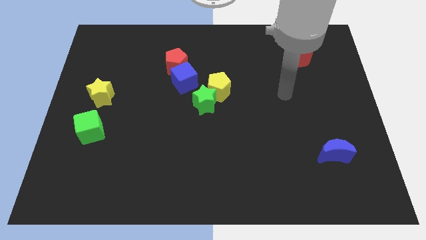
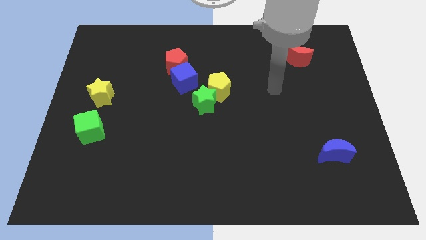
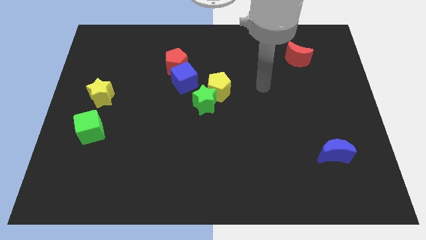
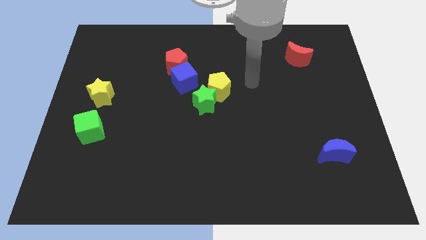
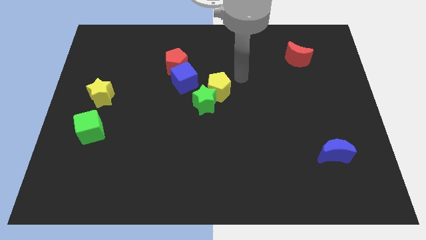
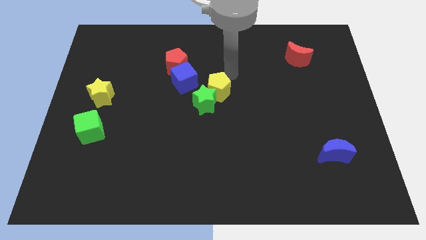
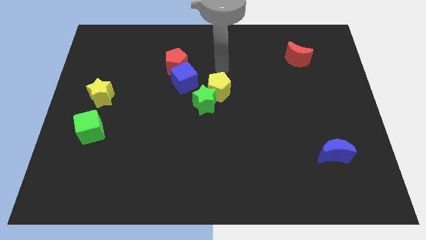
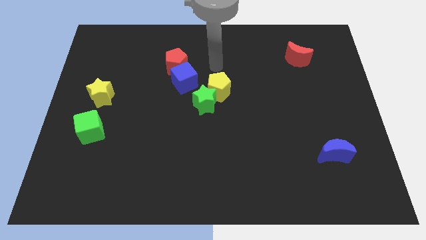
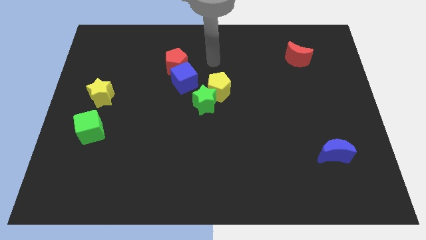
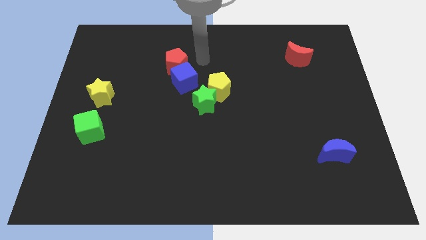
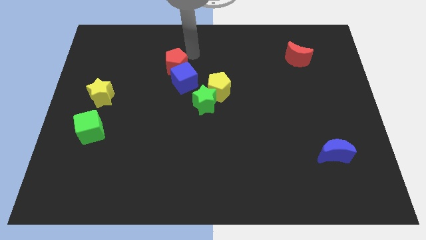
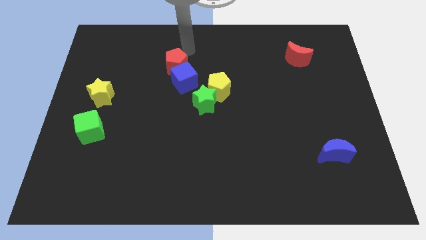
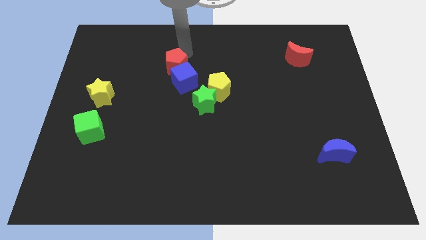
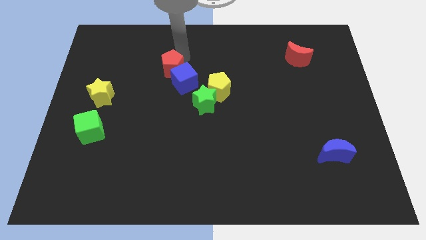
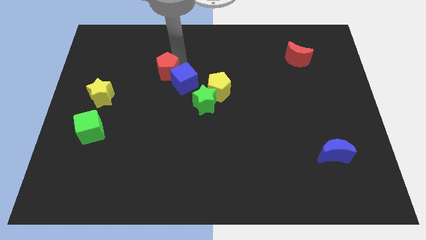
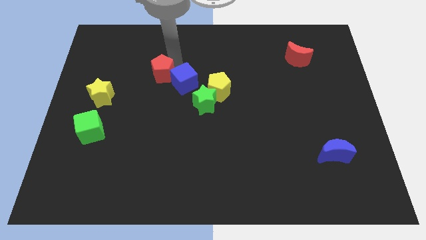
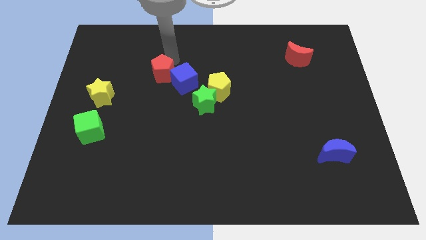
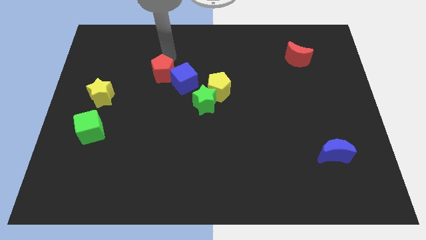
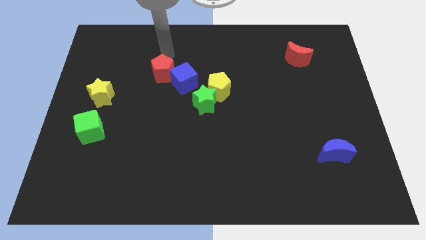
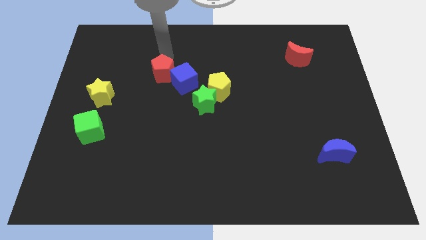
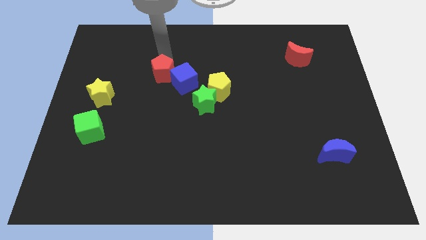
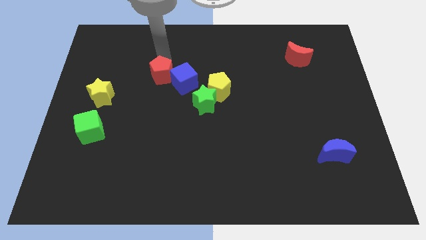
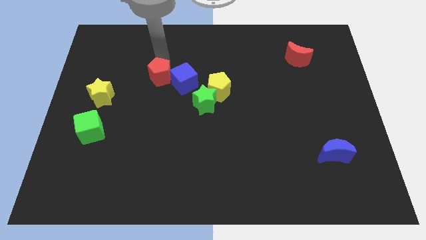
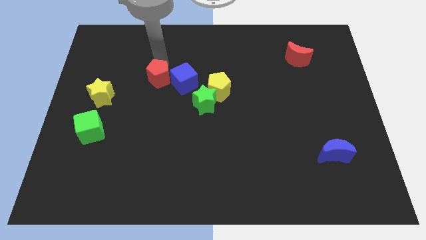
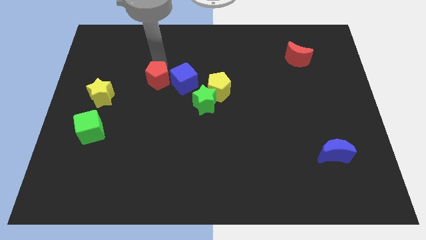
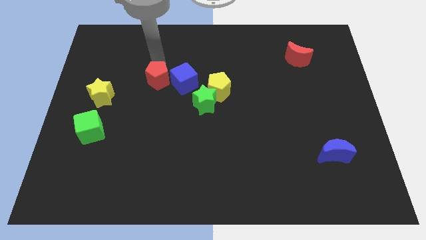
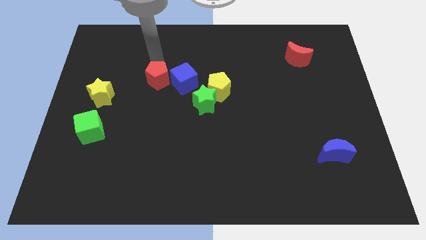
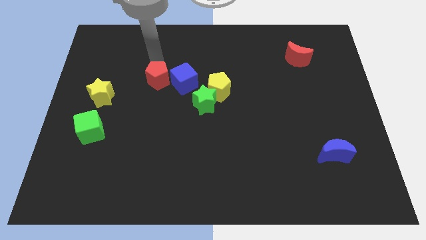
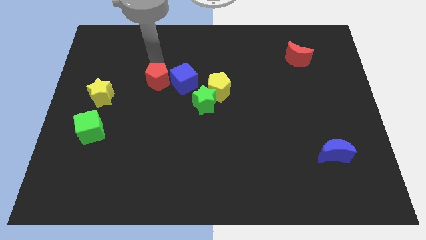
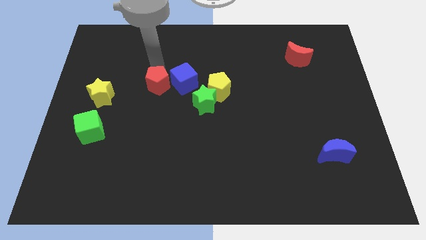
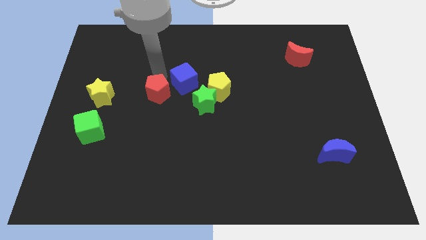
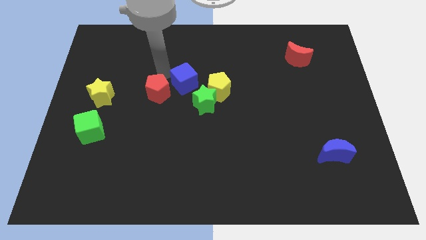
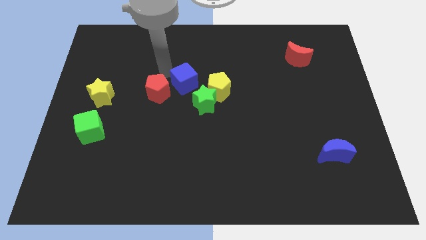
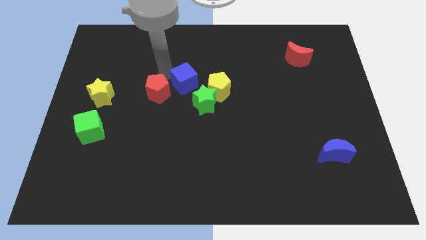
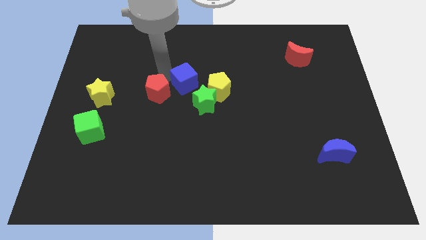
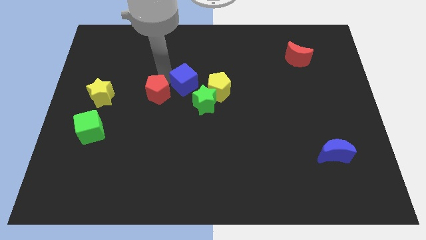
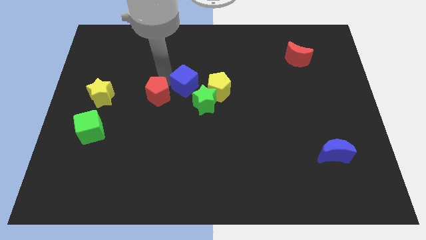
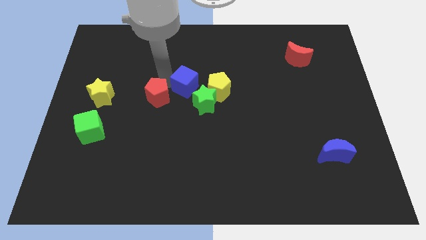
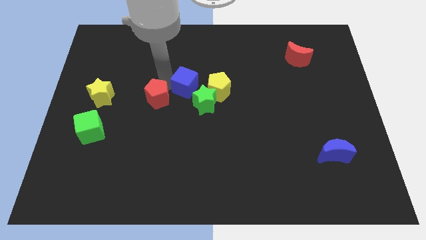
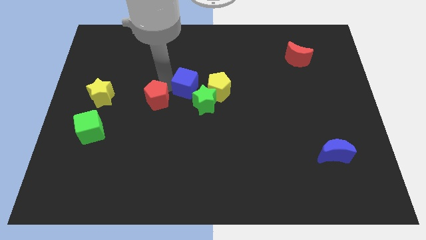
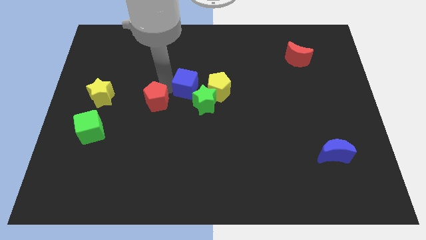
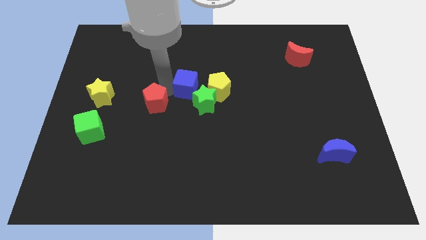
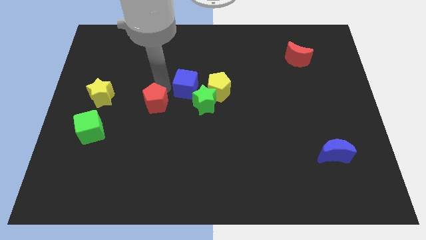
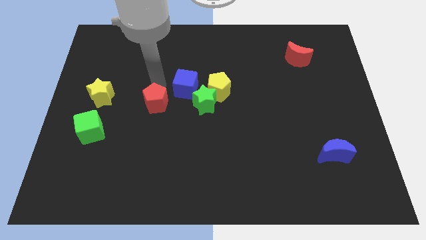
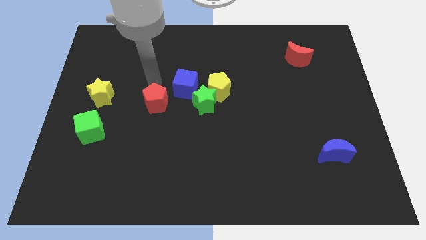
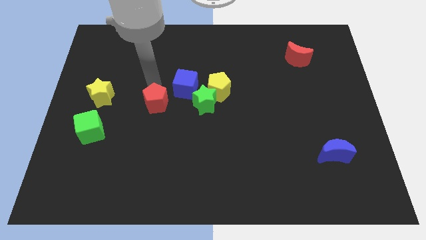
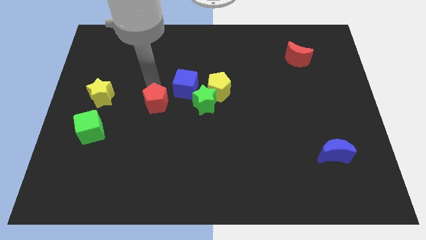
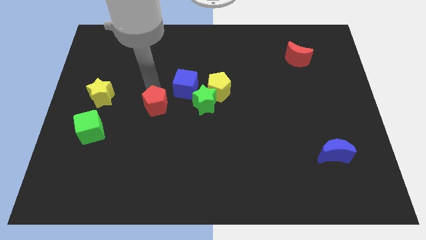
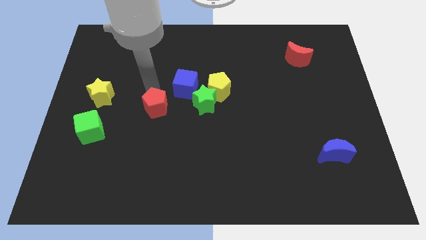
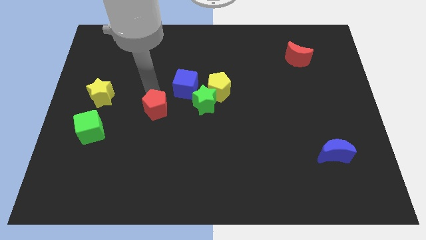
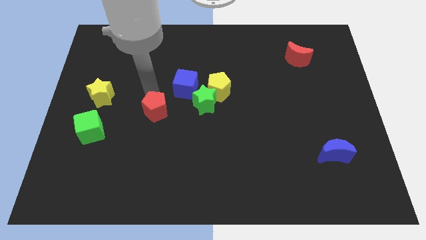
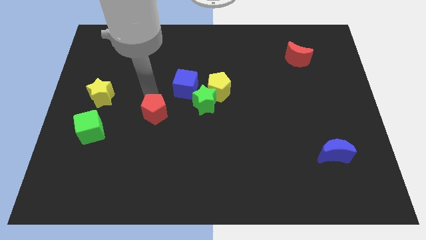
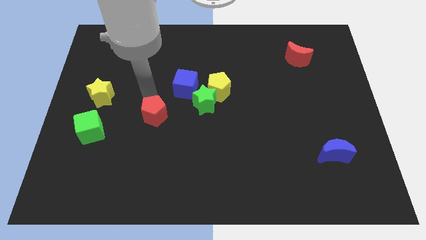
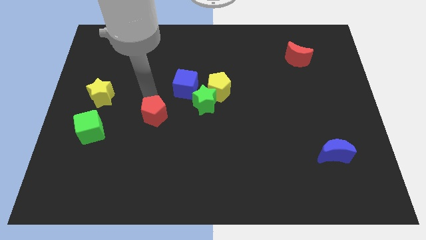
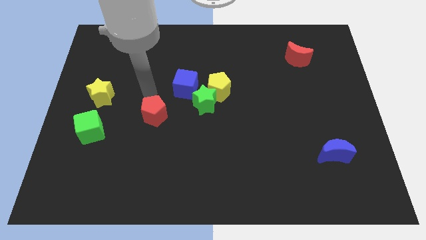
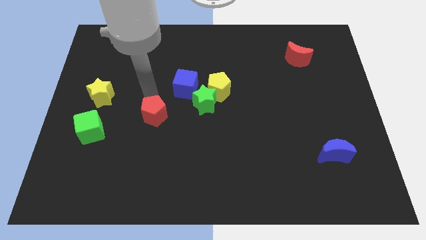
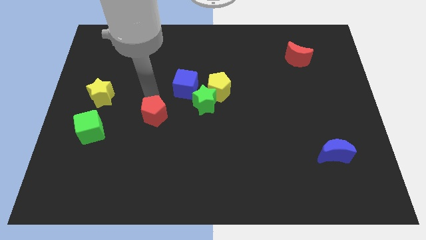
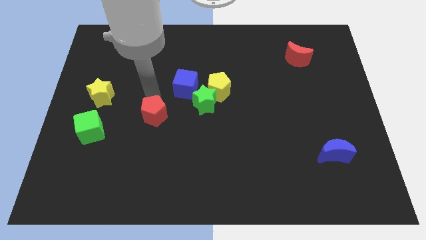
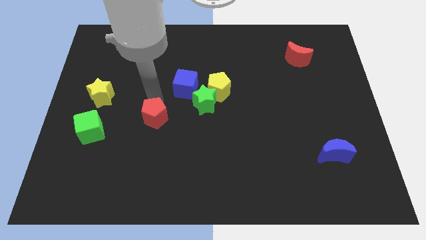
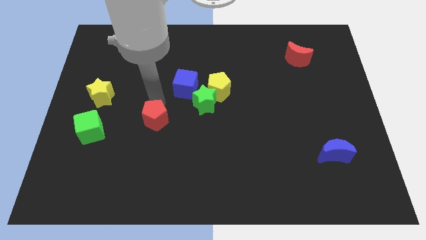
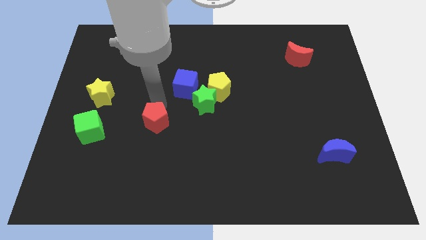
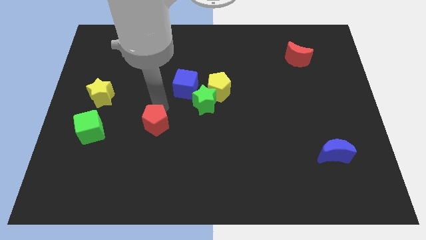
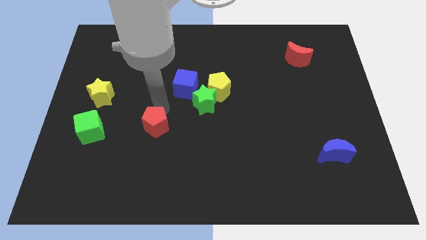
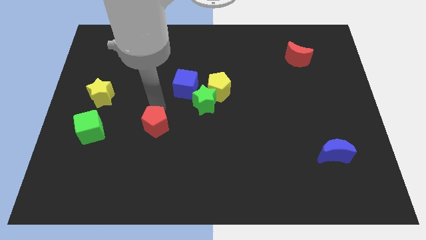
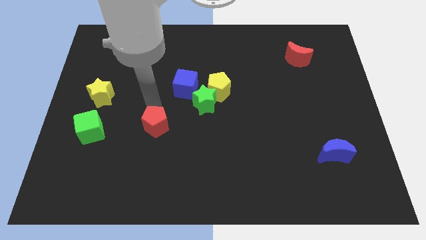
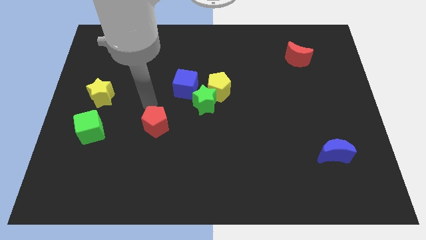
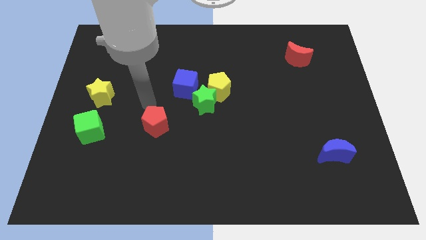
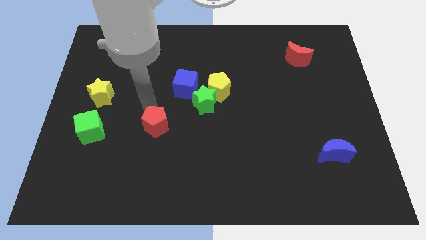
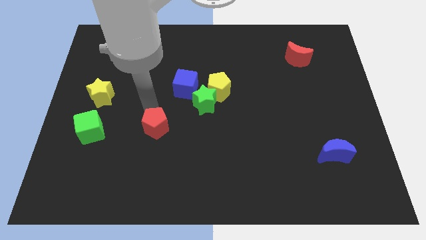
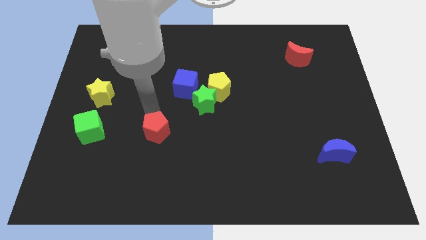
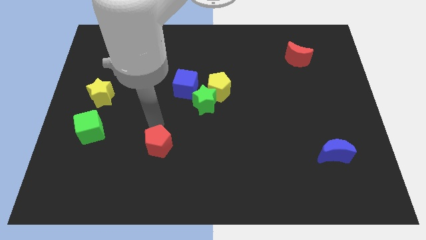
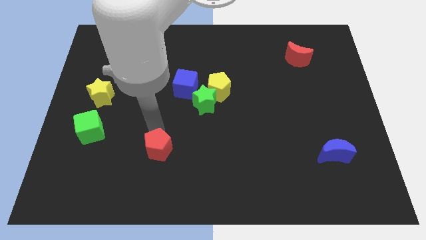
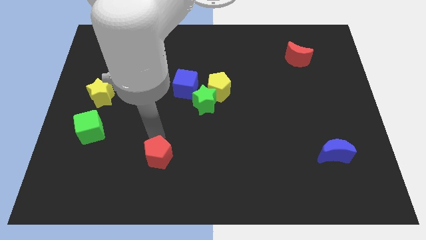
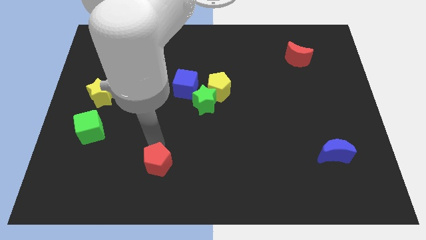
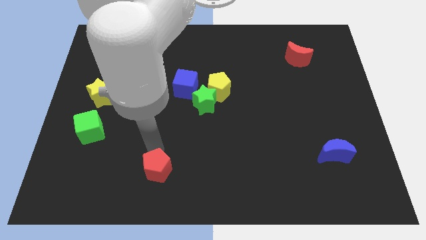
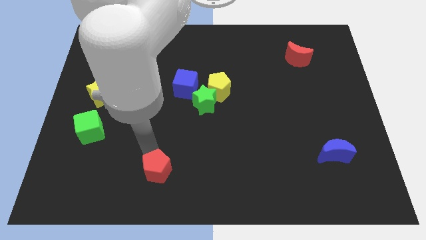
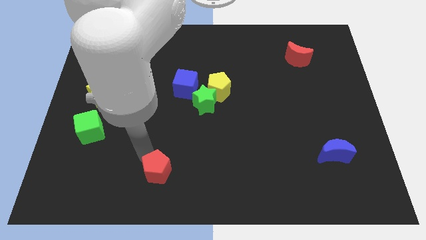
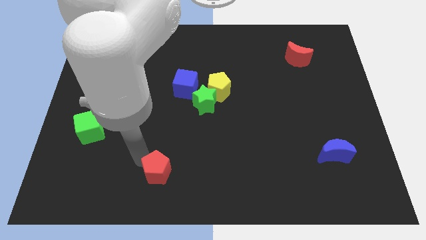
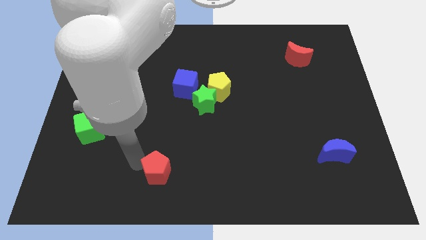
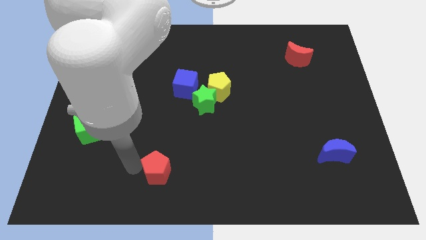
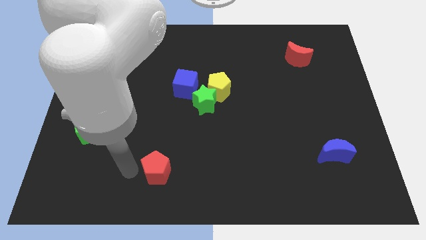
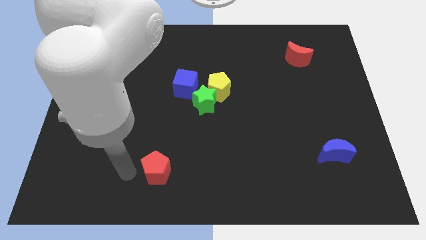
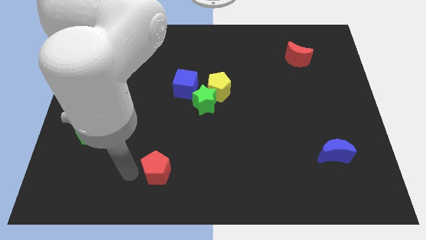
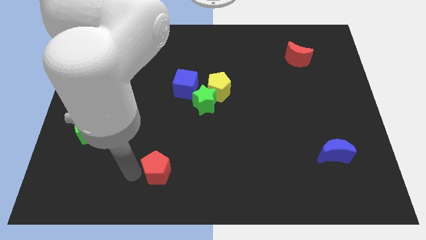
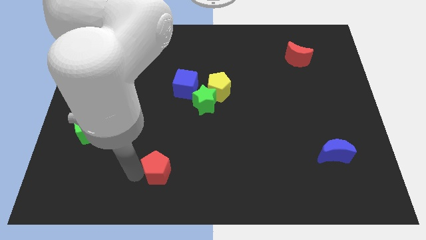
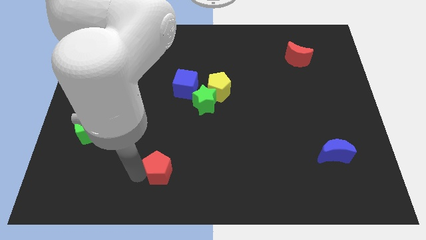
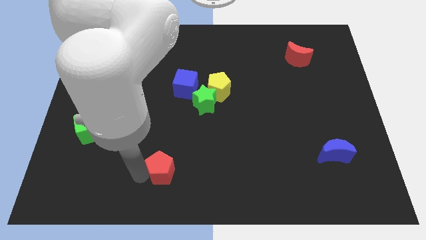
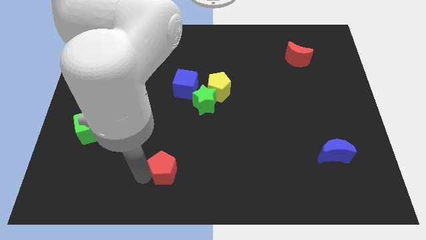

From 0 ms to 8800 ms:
put the red pentagon to the bottom
